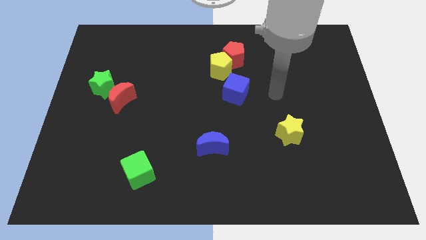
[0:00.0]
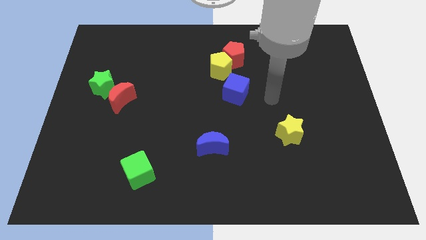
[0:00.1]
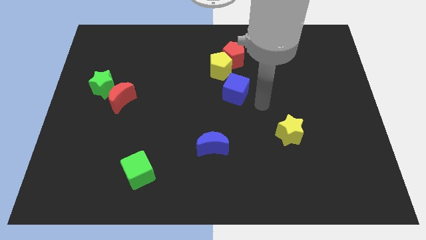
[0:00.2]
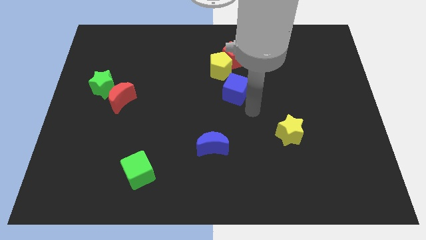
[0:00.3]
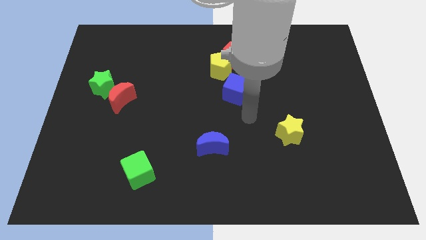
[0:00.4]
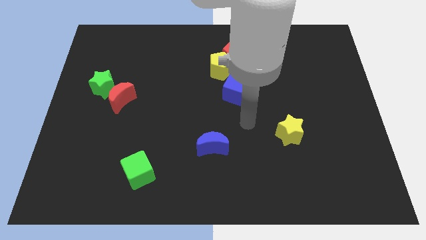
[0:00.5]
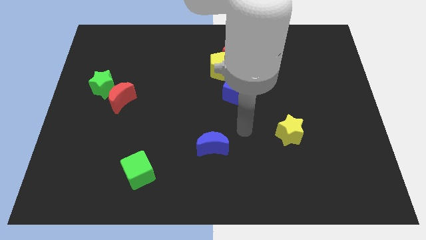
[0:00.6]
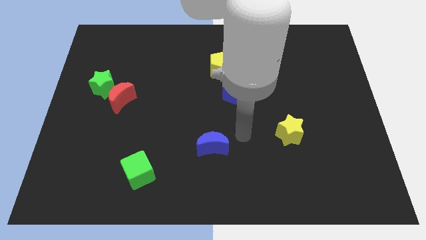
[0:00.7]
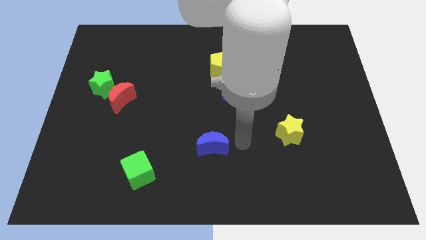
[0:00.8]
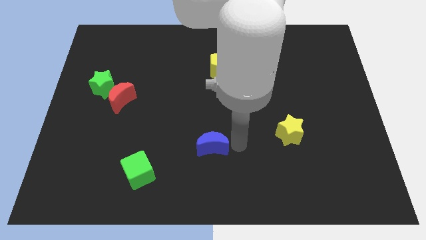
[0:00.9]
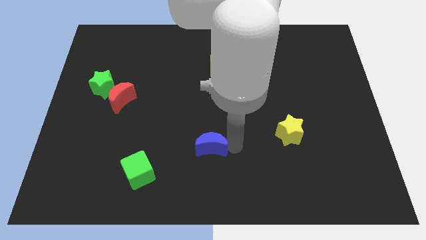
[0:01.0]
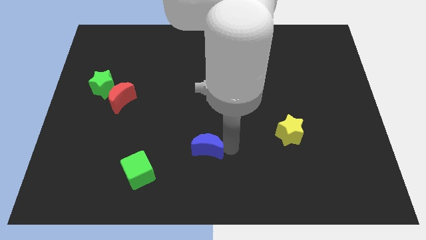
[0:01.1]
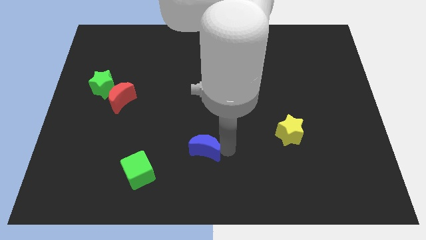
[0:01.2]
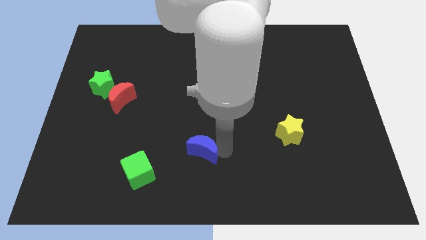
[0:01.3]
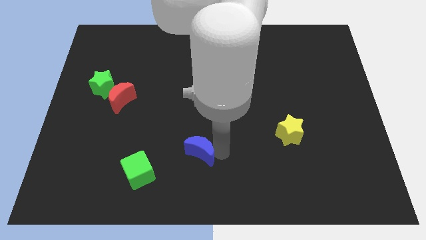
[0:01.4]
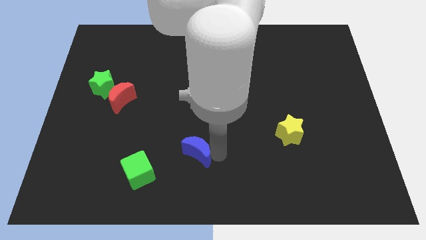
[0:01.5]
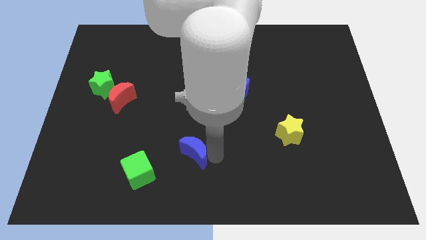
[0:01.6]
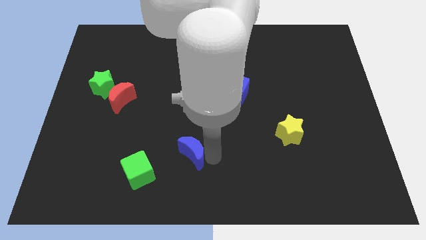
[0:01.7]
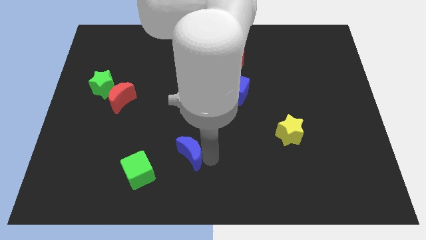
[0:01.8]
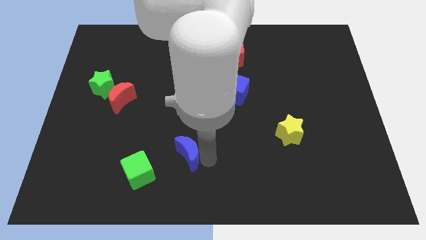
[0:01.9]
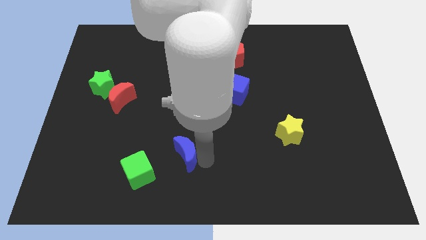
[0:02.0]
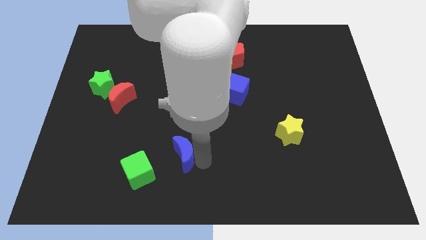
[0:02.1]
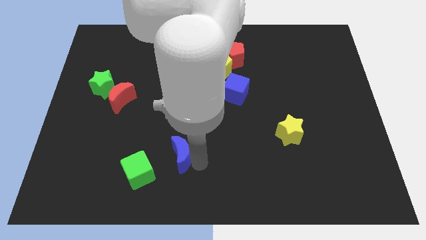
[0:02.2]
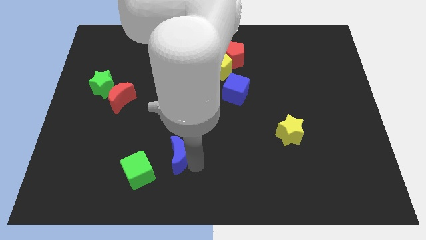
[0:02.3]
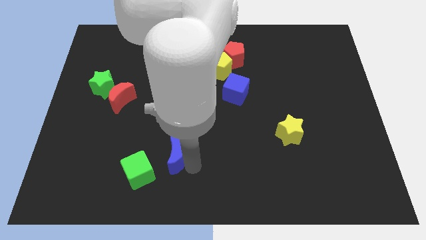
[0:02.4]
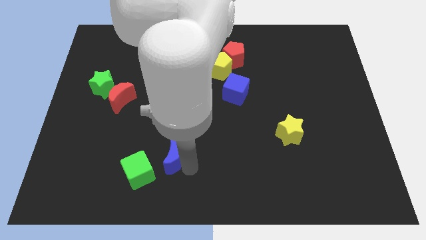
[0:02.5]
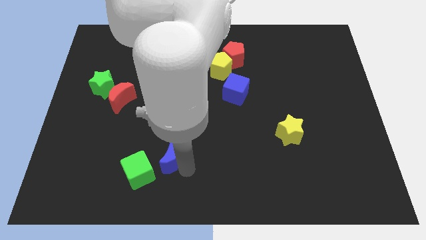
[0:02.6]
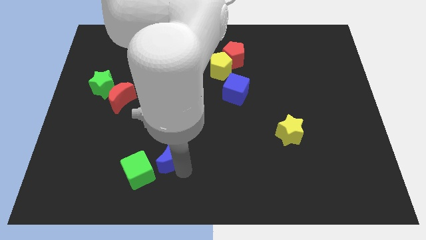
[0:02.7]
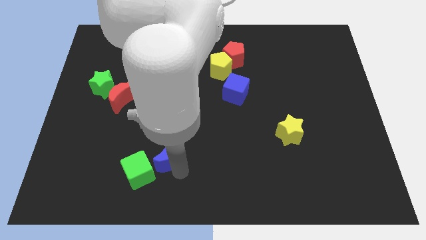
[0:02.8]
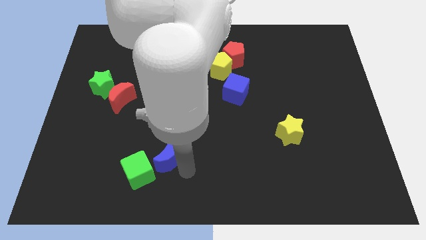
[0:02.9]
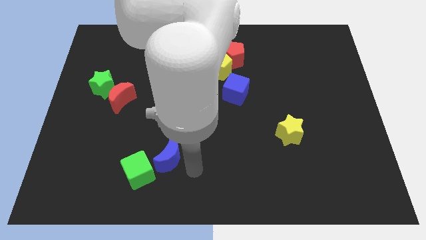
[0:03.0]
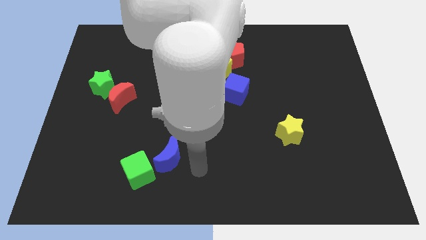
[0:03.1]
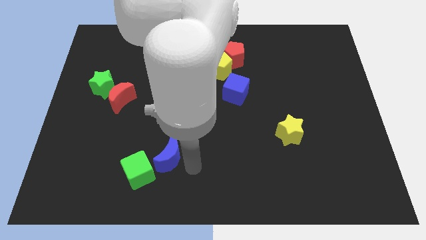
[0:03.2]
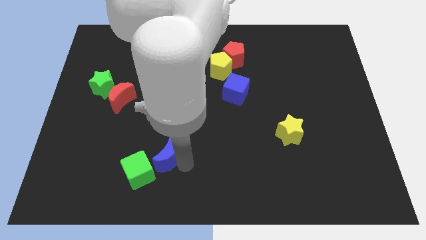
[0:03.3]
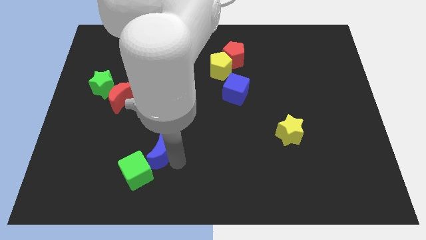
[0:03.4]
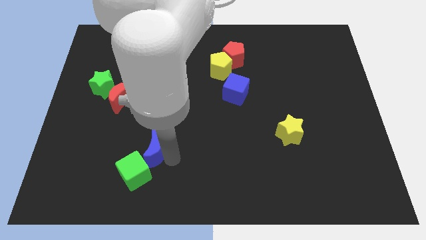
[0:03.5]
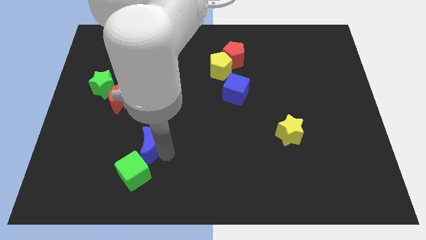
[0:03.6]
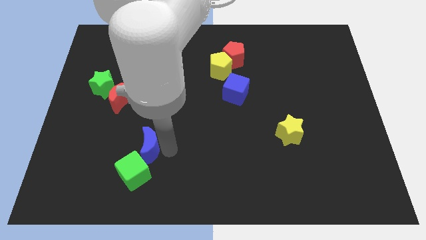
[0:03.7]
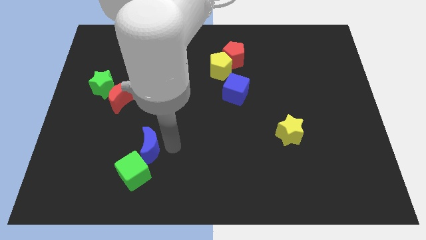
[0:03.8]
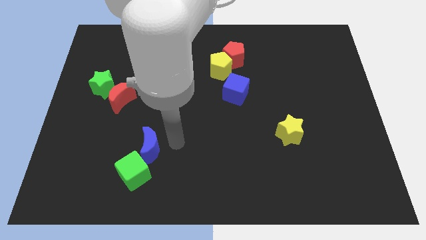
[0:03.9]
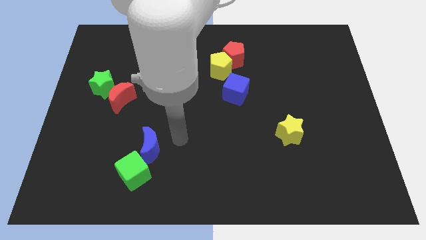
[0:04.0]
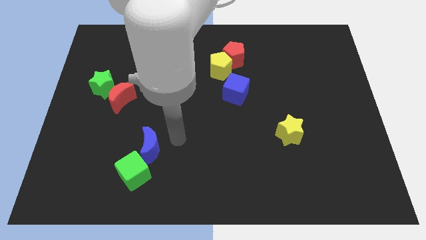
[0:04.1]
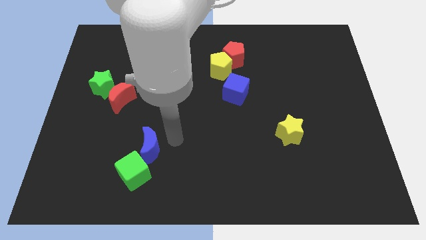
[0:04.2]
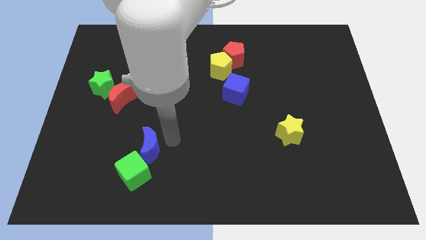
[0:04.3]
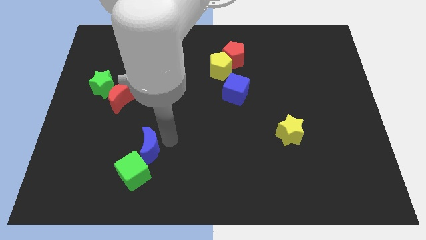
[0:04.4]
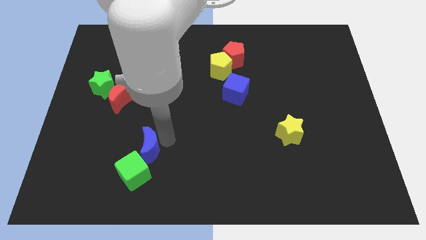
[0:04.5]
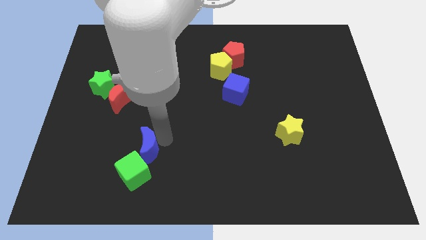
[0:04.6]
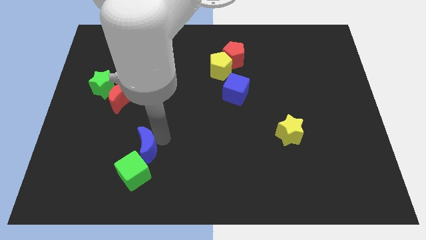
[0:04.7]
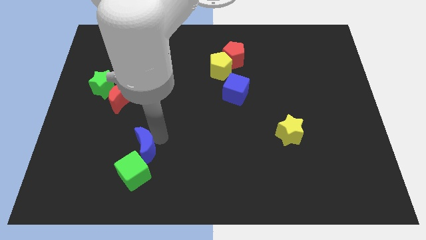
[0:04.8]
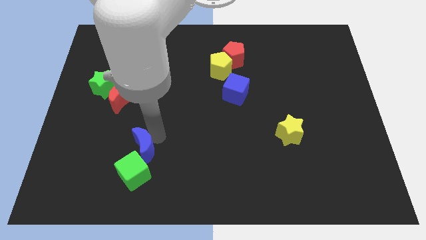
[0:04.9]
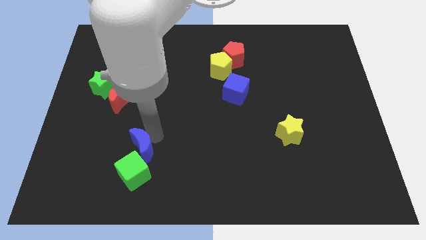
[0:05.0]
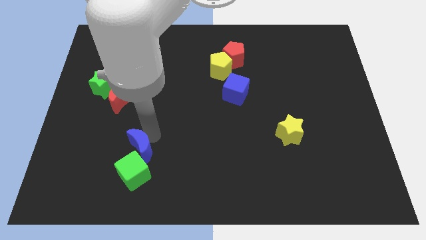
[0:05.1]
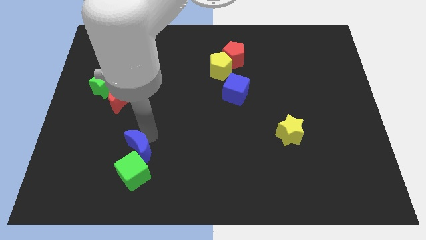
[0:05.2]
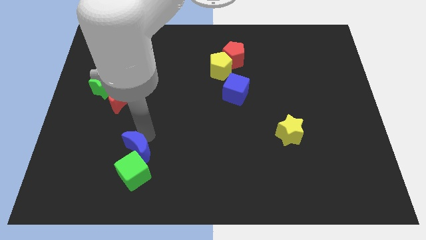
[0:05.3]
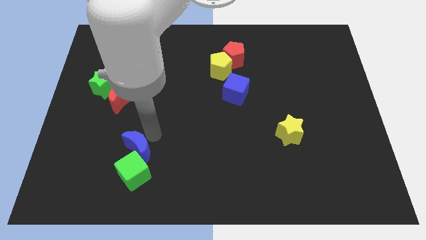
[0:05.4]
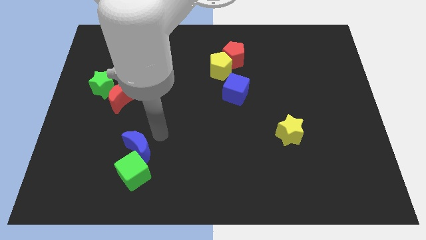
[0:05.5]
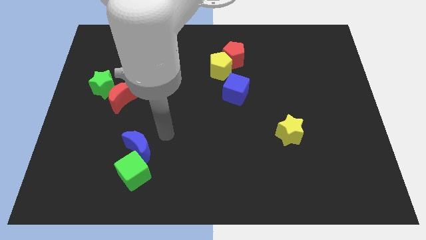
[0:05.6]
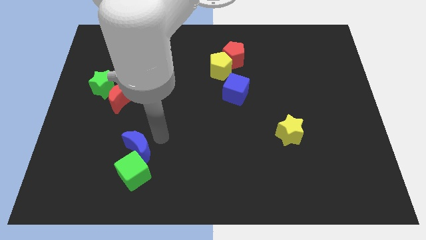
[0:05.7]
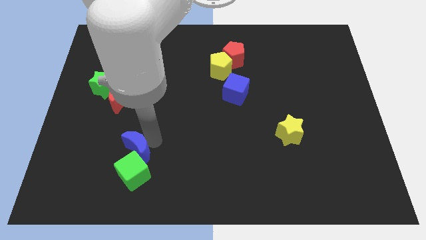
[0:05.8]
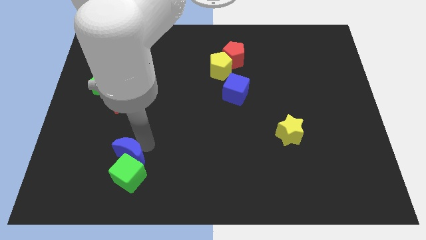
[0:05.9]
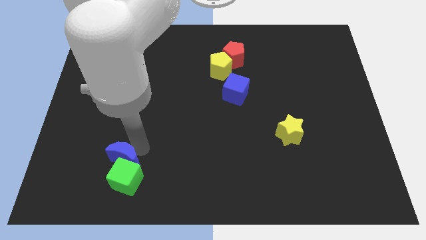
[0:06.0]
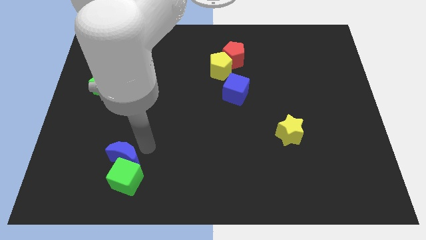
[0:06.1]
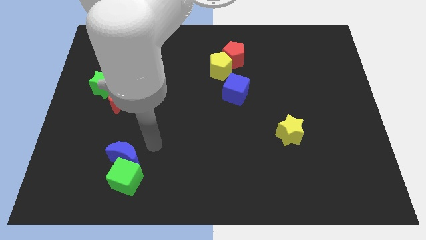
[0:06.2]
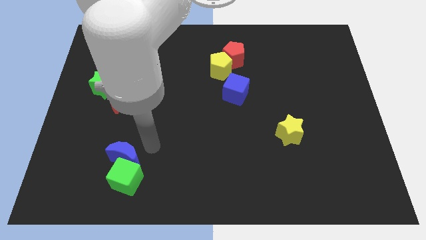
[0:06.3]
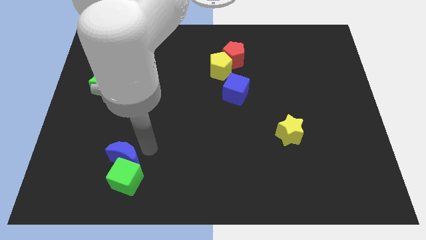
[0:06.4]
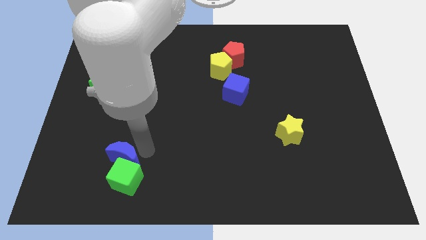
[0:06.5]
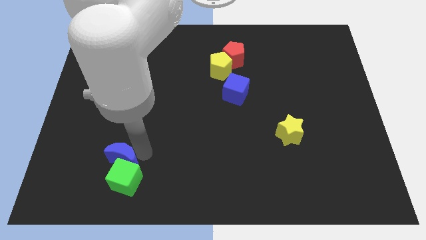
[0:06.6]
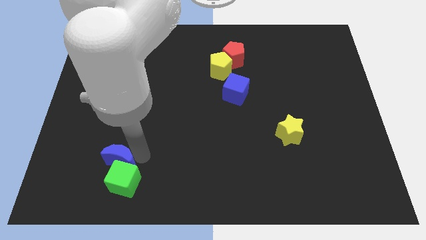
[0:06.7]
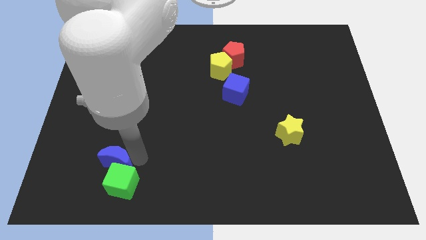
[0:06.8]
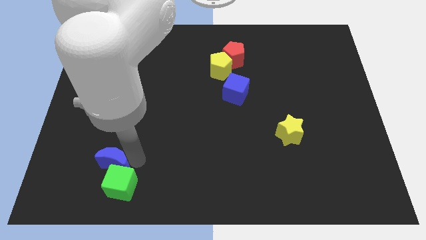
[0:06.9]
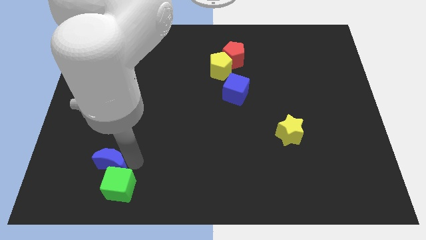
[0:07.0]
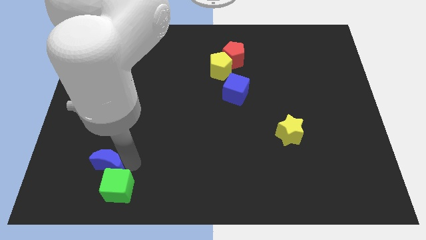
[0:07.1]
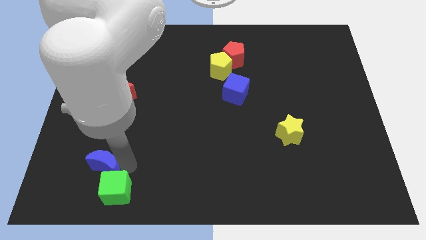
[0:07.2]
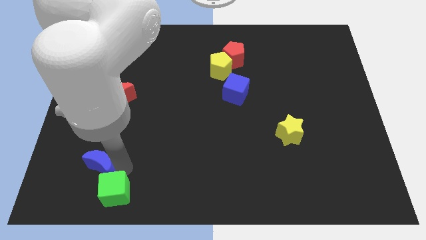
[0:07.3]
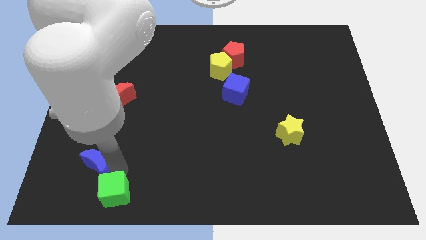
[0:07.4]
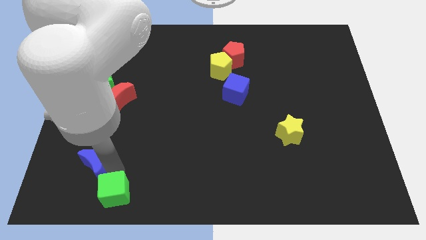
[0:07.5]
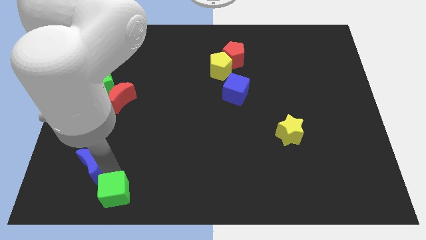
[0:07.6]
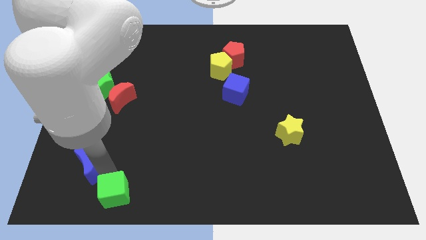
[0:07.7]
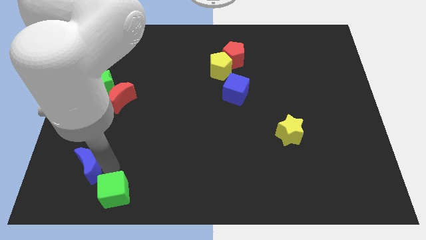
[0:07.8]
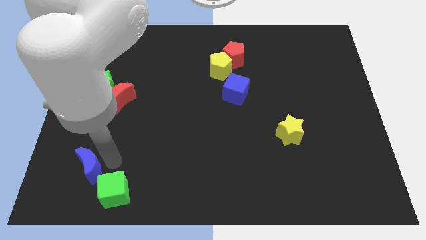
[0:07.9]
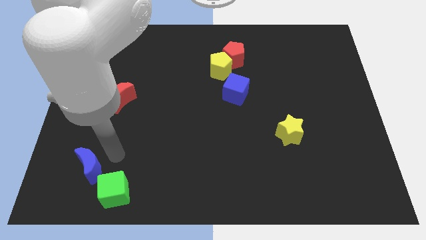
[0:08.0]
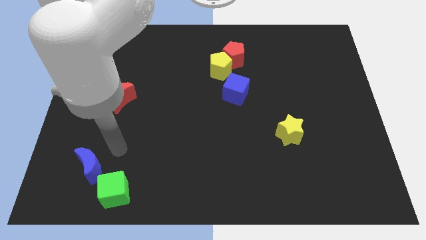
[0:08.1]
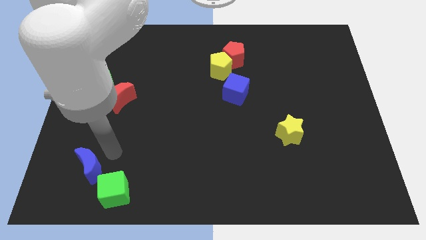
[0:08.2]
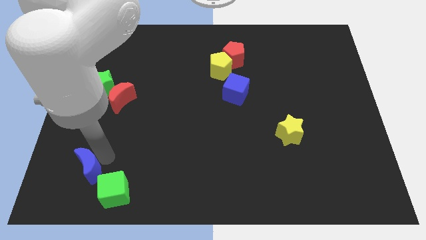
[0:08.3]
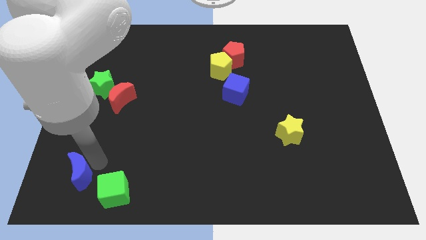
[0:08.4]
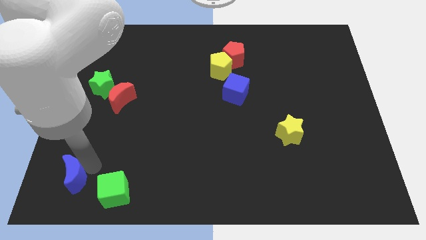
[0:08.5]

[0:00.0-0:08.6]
slide the blue moon to the lower left corner
